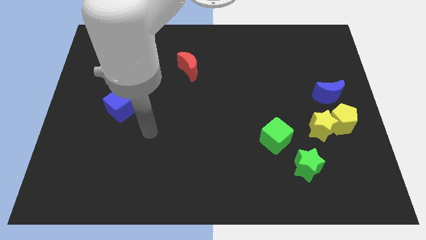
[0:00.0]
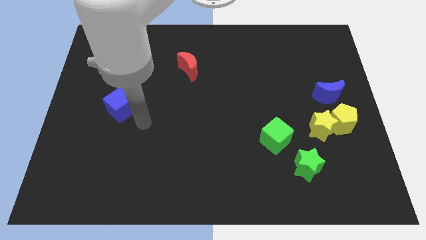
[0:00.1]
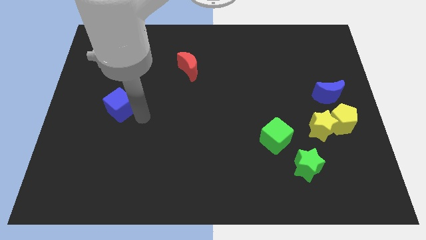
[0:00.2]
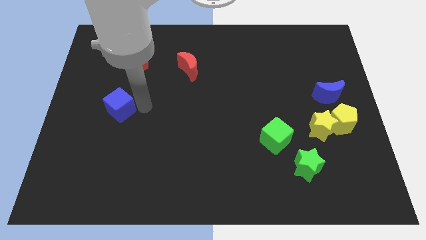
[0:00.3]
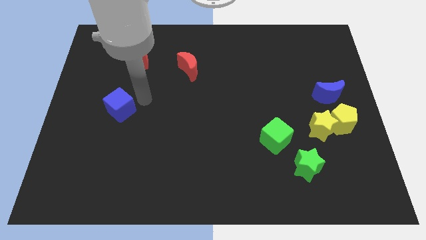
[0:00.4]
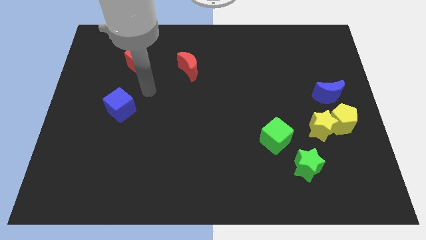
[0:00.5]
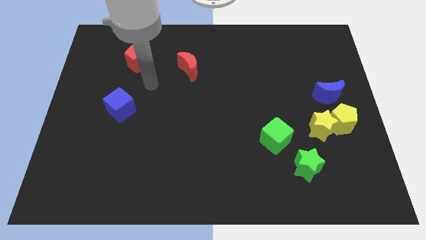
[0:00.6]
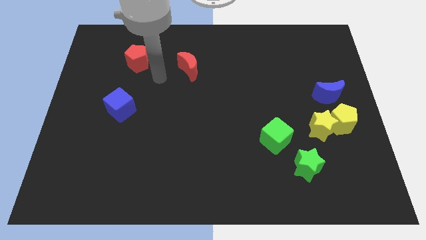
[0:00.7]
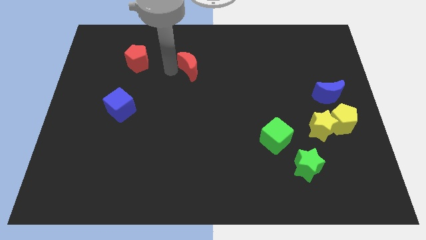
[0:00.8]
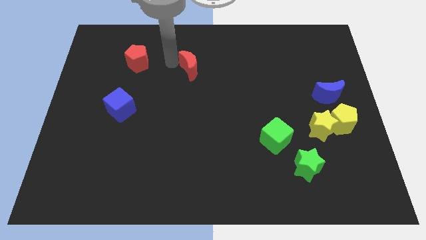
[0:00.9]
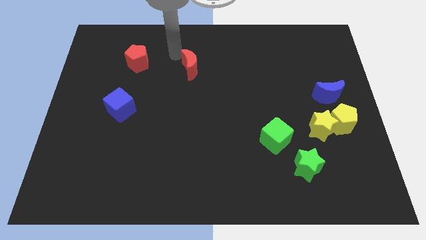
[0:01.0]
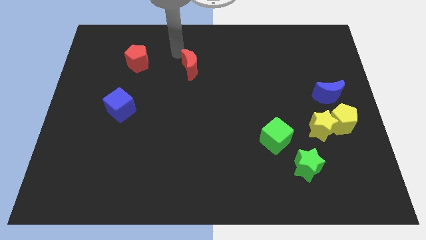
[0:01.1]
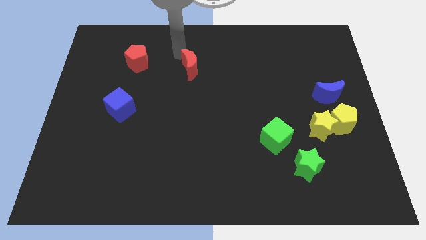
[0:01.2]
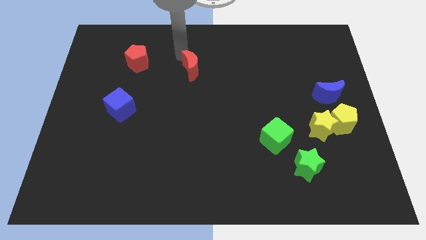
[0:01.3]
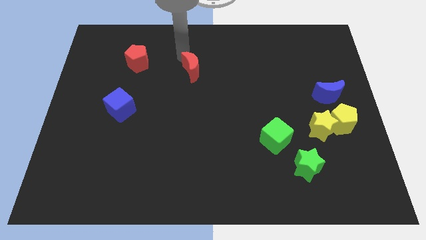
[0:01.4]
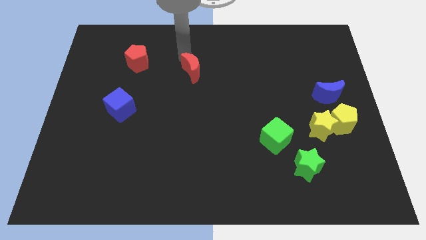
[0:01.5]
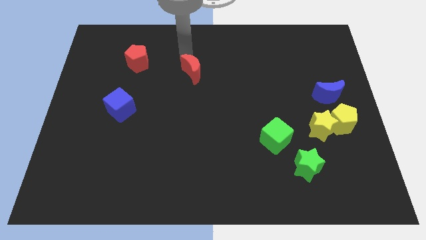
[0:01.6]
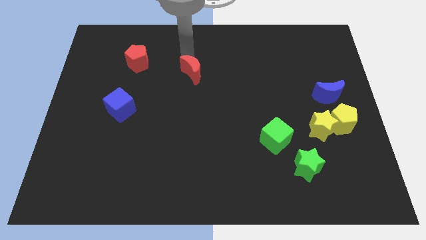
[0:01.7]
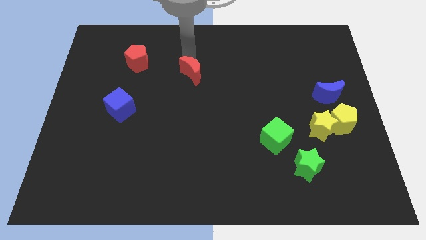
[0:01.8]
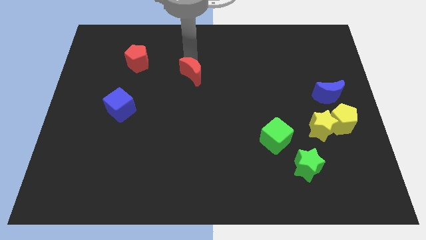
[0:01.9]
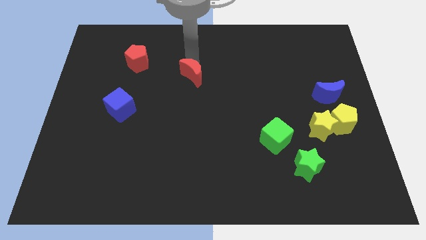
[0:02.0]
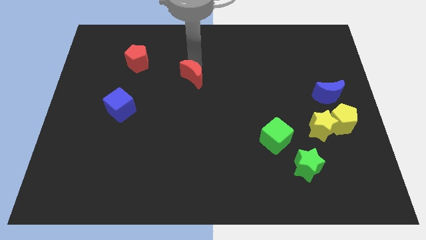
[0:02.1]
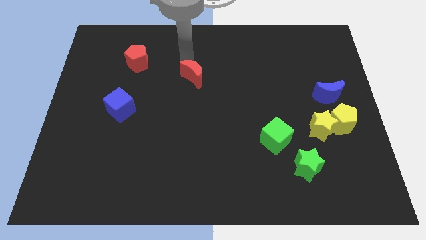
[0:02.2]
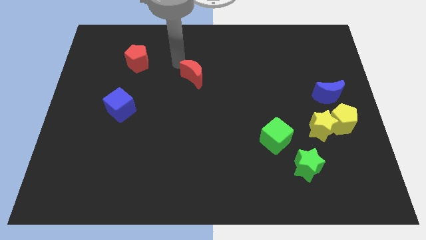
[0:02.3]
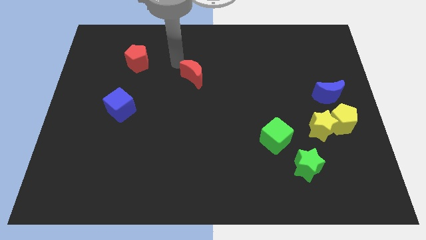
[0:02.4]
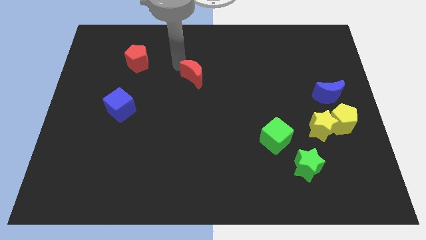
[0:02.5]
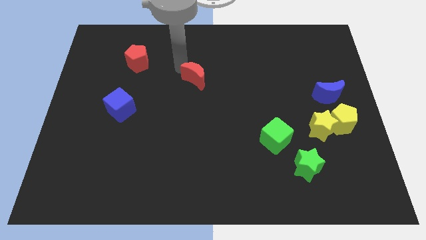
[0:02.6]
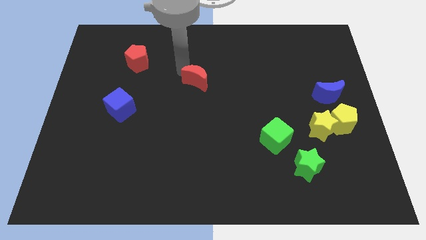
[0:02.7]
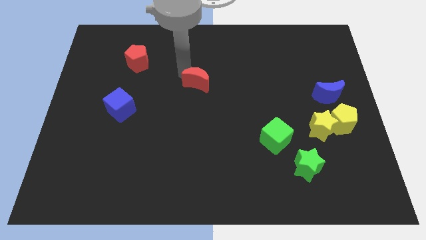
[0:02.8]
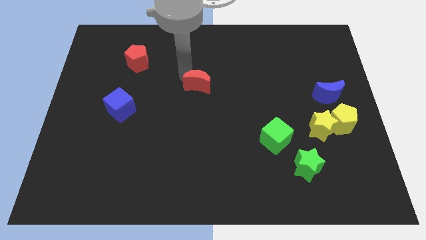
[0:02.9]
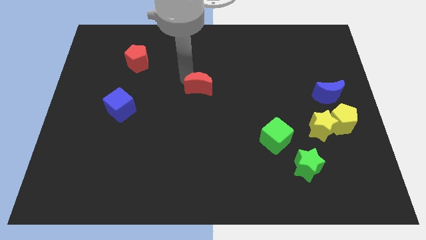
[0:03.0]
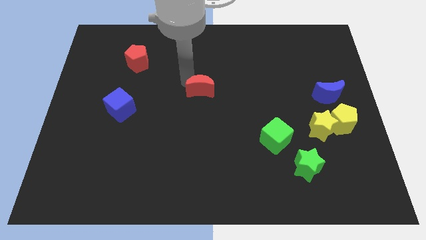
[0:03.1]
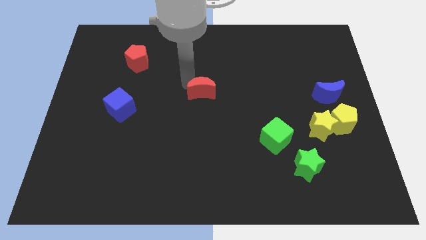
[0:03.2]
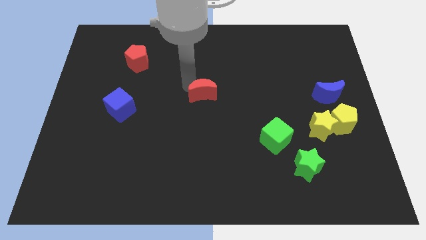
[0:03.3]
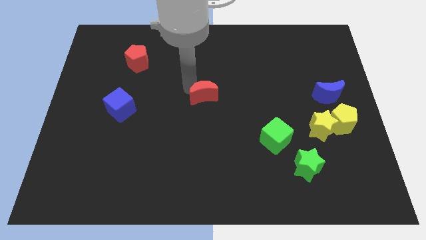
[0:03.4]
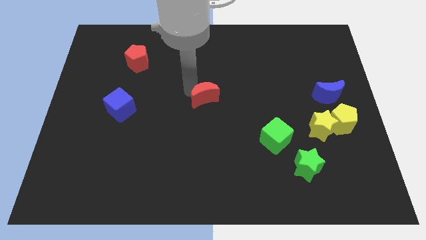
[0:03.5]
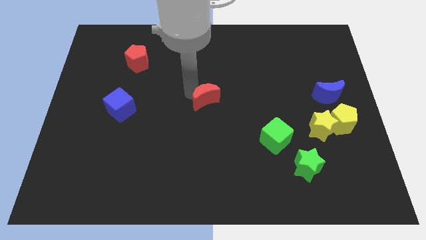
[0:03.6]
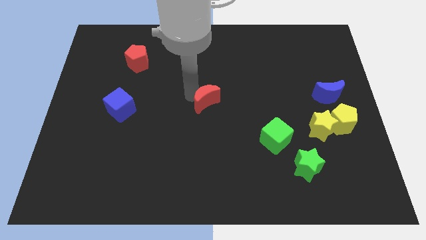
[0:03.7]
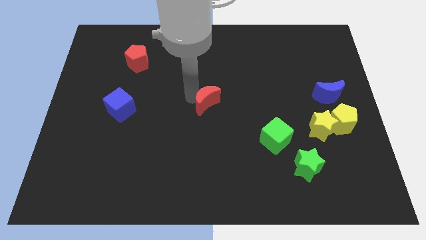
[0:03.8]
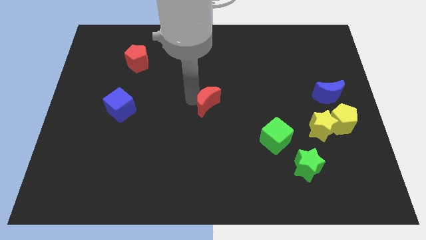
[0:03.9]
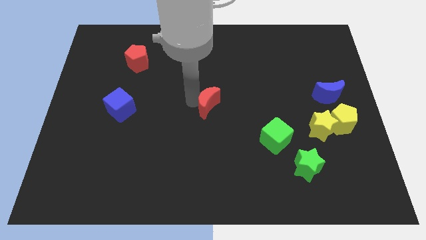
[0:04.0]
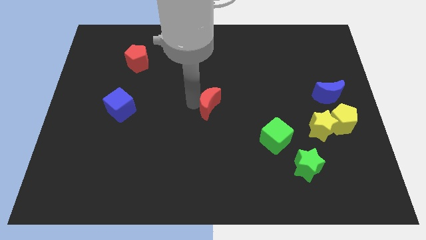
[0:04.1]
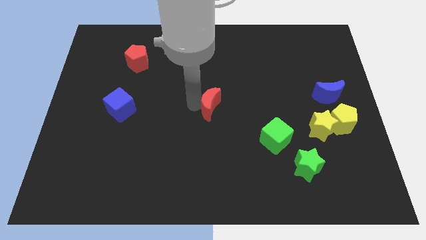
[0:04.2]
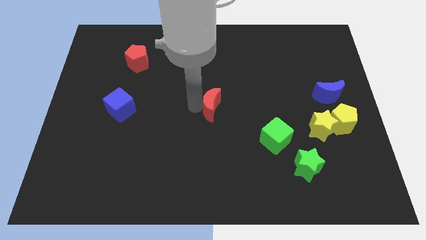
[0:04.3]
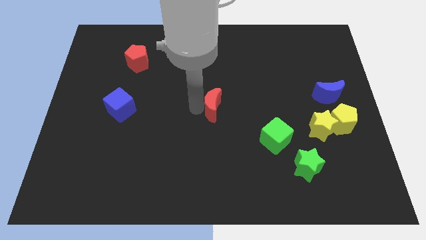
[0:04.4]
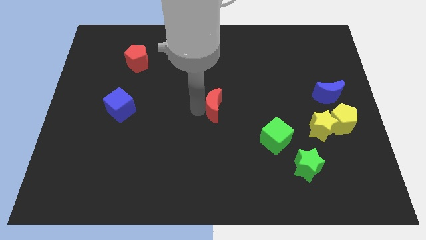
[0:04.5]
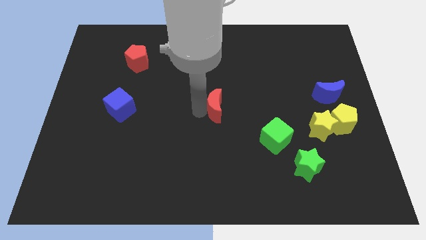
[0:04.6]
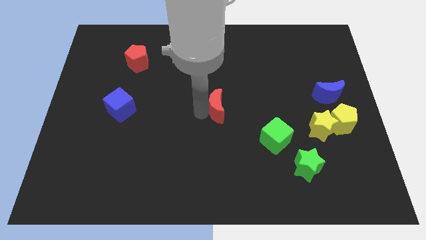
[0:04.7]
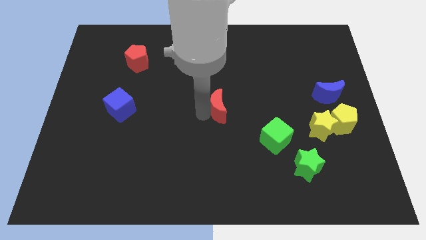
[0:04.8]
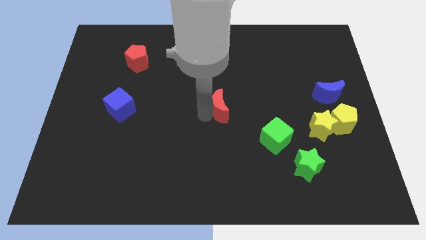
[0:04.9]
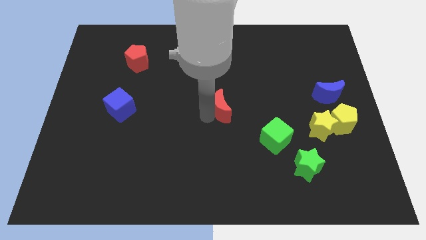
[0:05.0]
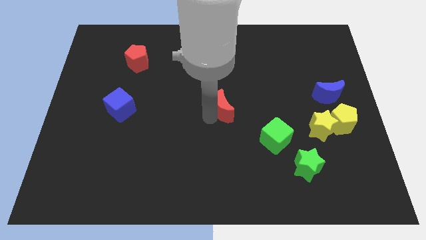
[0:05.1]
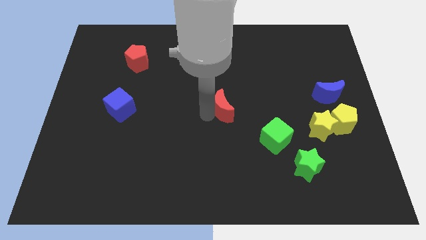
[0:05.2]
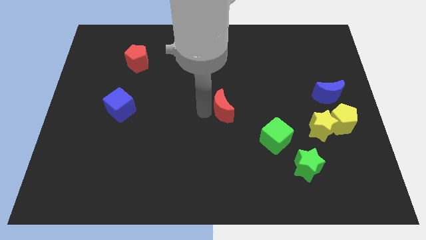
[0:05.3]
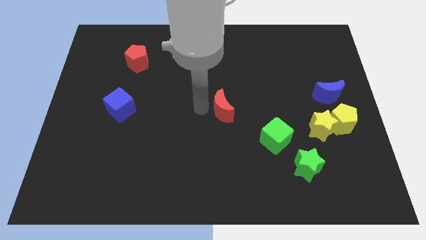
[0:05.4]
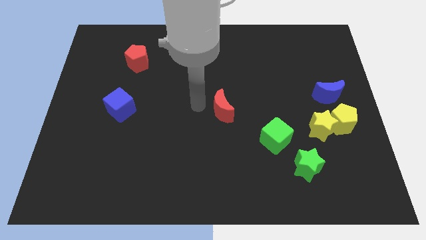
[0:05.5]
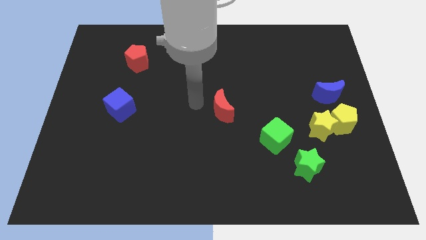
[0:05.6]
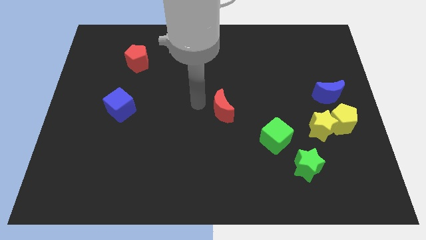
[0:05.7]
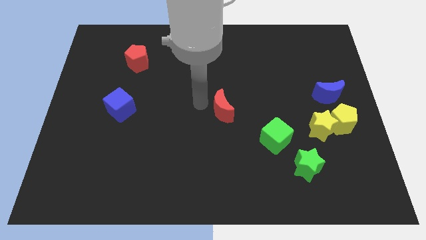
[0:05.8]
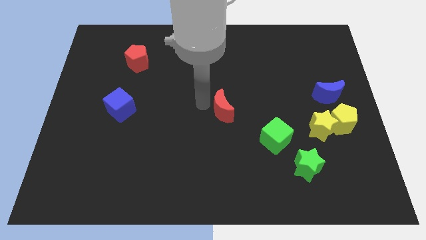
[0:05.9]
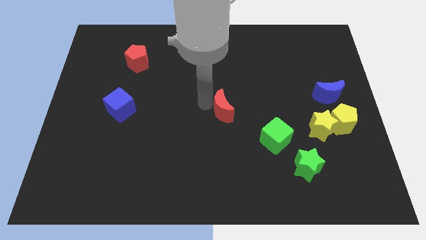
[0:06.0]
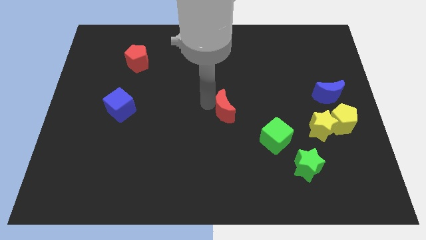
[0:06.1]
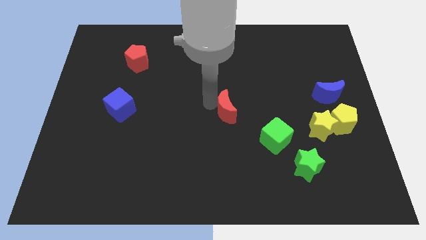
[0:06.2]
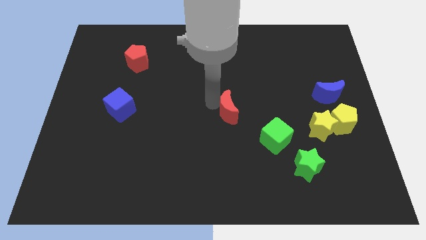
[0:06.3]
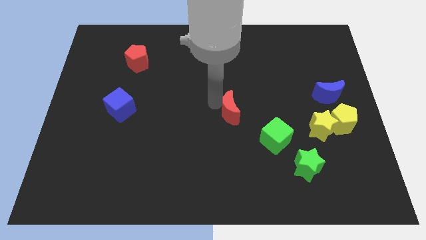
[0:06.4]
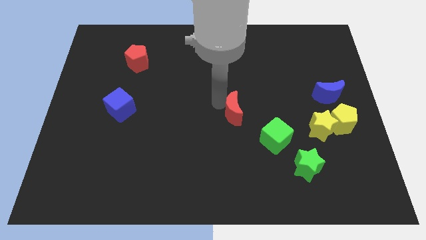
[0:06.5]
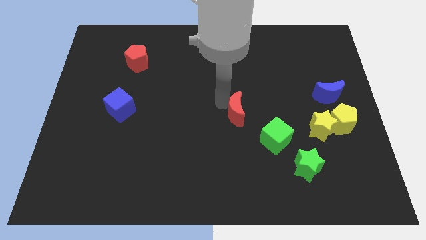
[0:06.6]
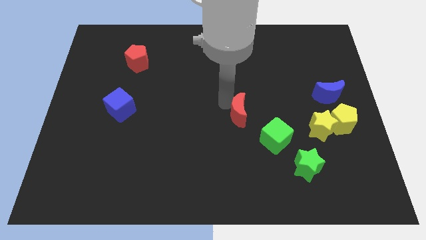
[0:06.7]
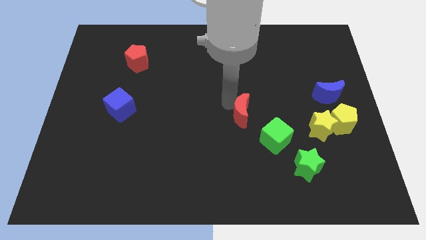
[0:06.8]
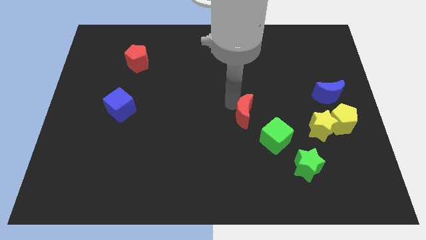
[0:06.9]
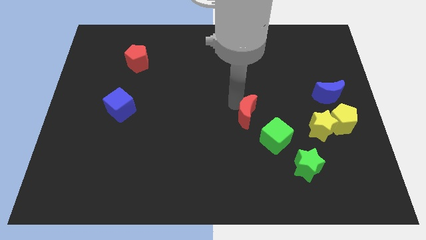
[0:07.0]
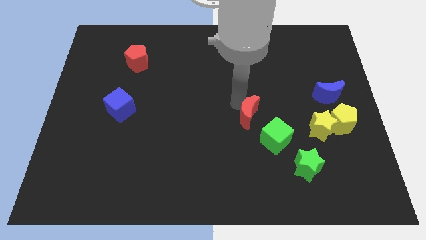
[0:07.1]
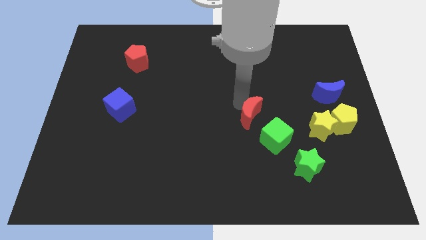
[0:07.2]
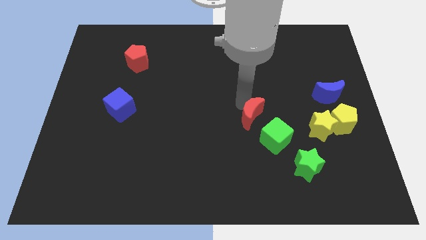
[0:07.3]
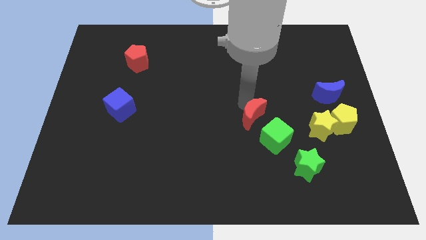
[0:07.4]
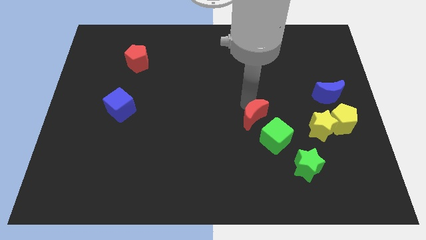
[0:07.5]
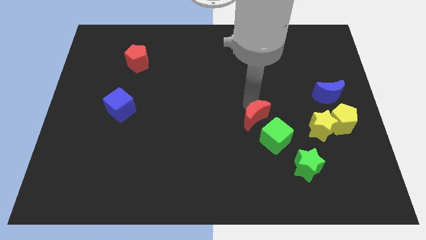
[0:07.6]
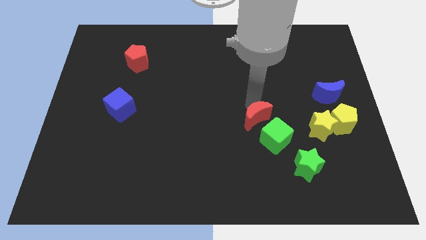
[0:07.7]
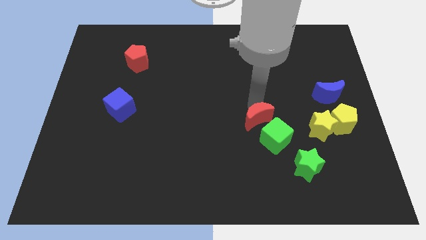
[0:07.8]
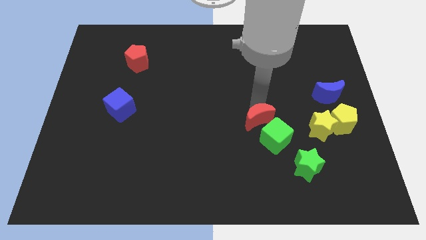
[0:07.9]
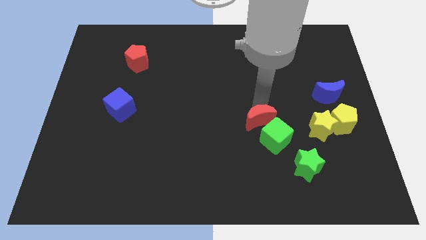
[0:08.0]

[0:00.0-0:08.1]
put the red moon close to the green cube
